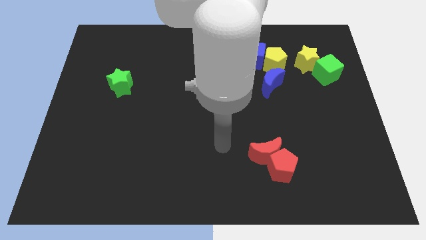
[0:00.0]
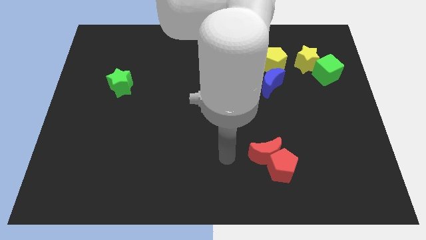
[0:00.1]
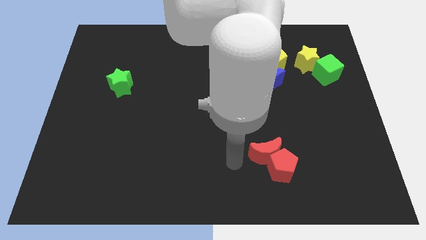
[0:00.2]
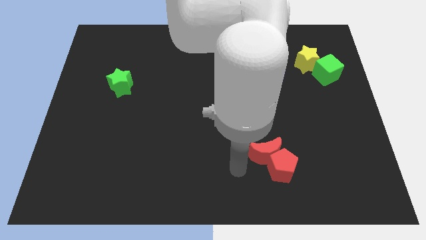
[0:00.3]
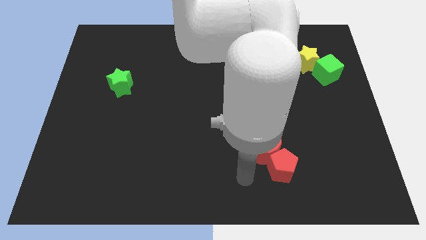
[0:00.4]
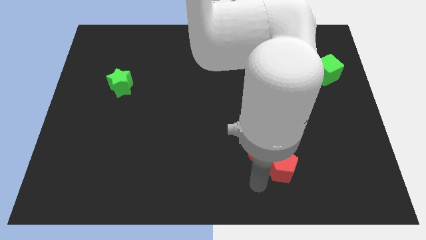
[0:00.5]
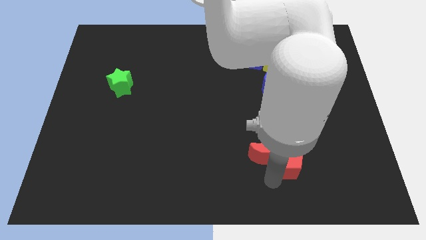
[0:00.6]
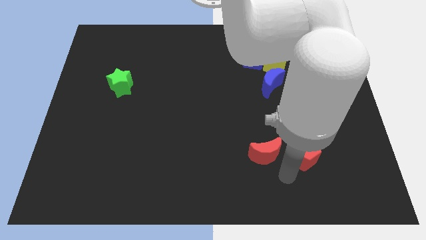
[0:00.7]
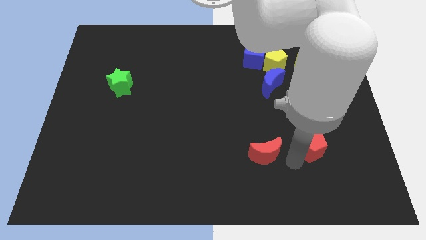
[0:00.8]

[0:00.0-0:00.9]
separate the red moon from the red pentagon

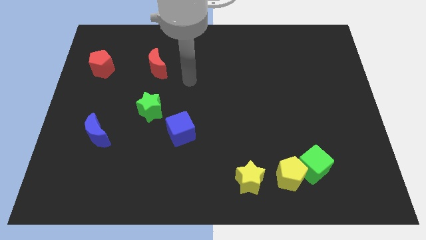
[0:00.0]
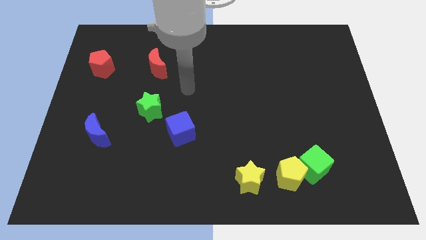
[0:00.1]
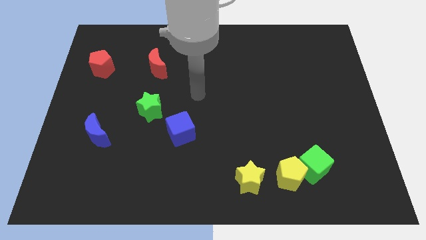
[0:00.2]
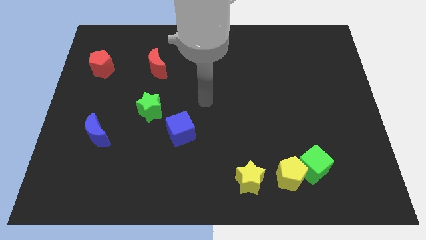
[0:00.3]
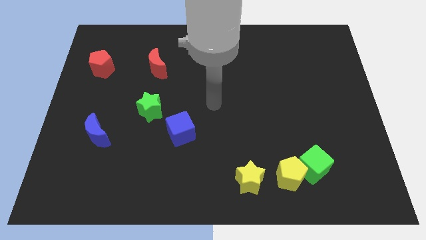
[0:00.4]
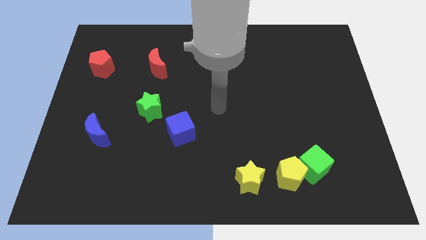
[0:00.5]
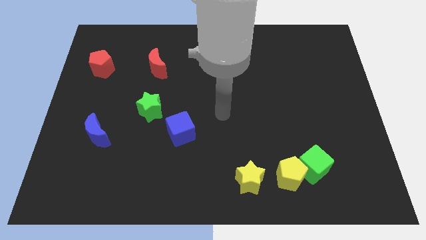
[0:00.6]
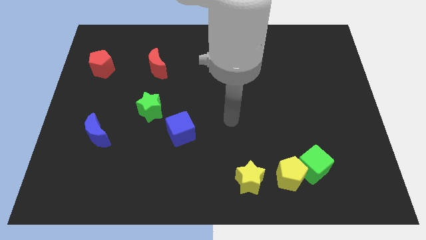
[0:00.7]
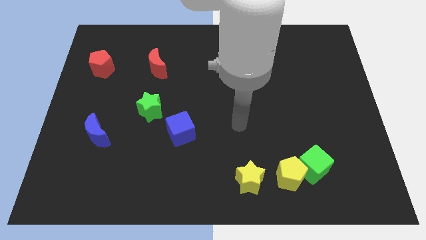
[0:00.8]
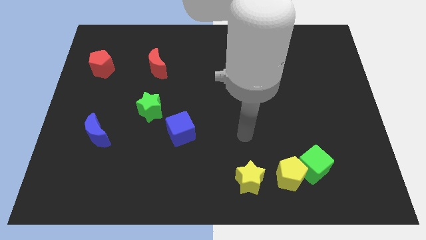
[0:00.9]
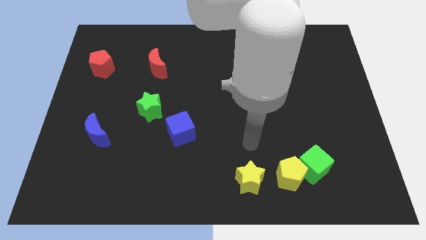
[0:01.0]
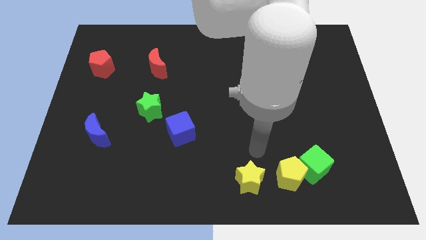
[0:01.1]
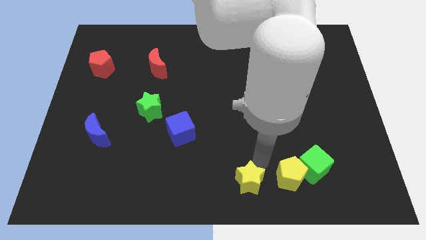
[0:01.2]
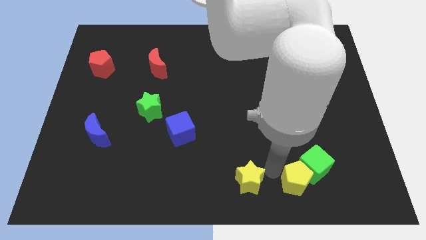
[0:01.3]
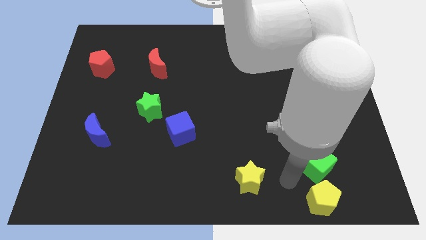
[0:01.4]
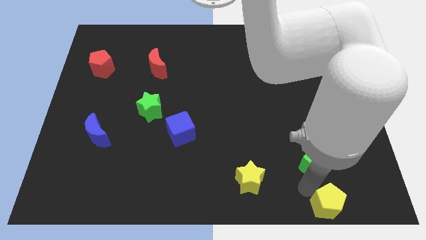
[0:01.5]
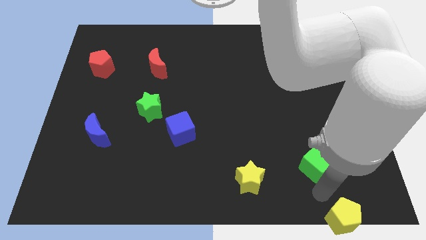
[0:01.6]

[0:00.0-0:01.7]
separate the green cube from the yellow pentagon

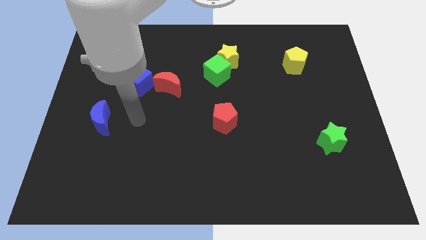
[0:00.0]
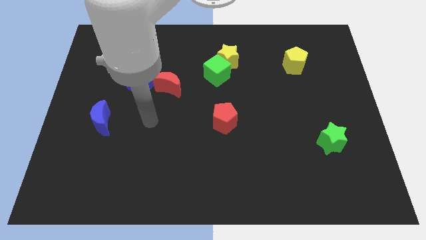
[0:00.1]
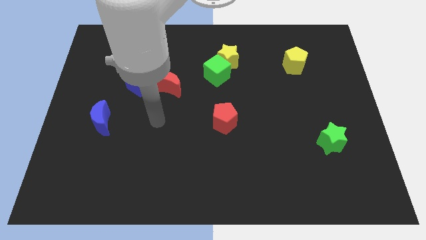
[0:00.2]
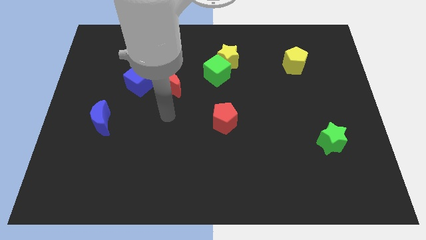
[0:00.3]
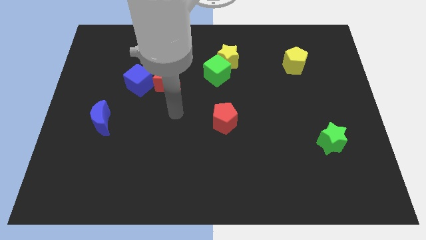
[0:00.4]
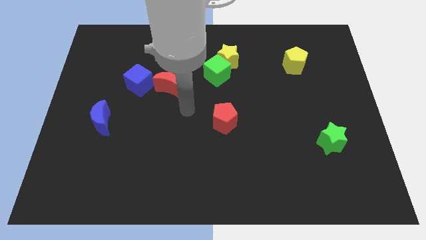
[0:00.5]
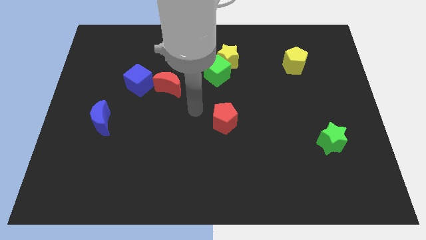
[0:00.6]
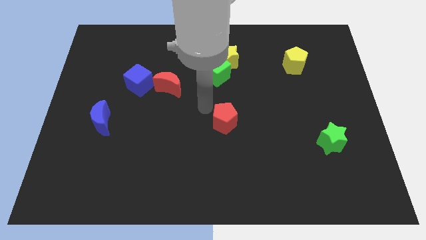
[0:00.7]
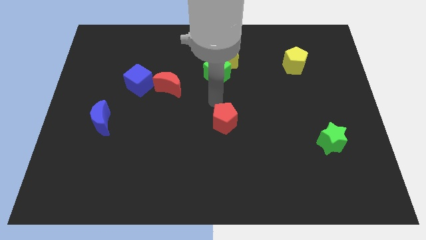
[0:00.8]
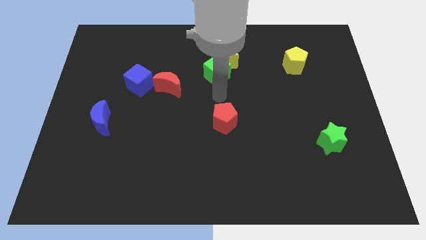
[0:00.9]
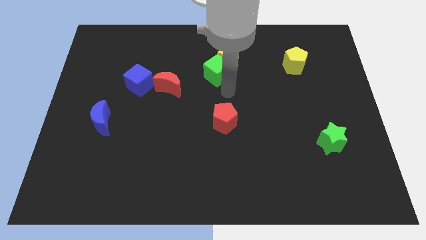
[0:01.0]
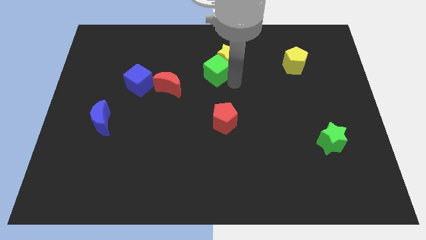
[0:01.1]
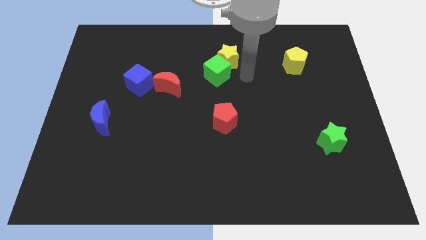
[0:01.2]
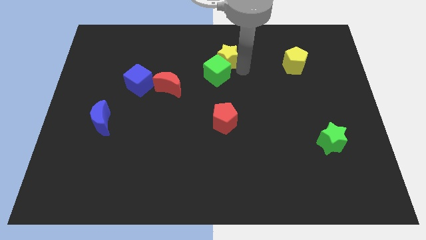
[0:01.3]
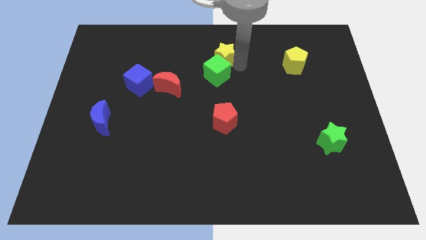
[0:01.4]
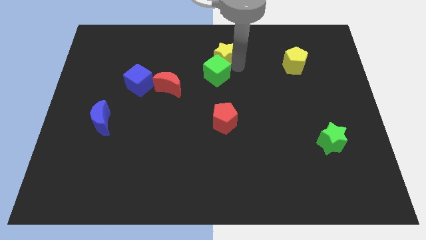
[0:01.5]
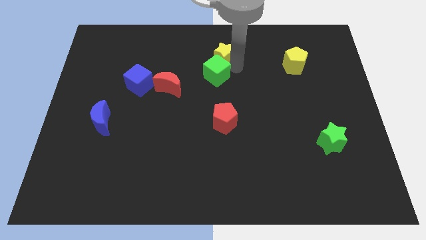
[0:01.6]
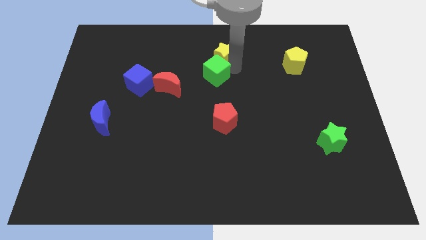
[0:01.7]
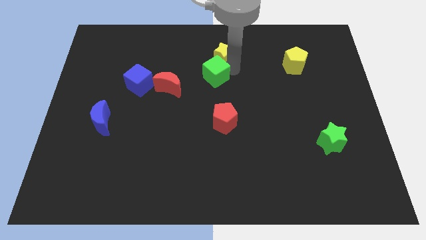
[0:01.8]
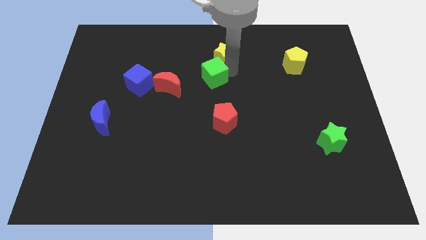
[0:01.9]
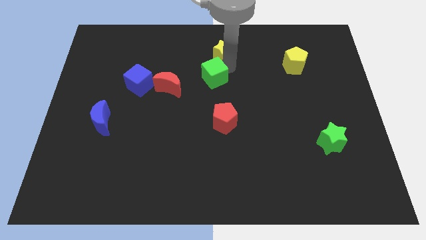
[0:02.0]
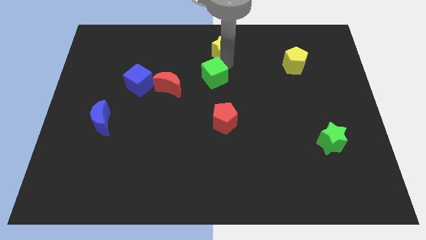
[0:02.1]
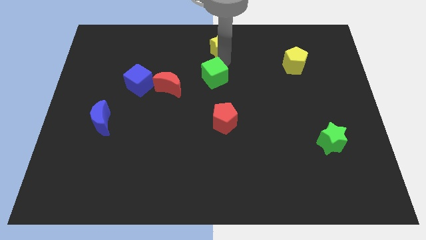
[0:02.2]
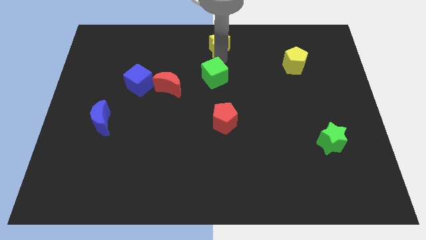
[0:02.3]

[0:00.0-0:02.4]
pull the green cube apart from the yellow star

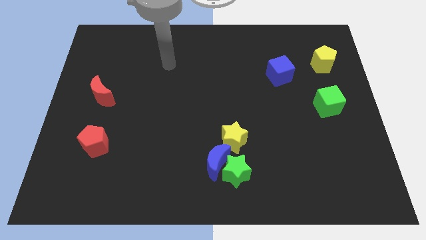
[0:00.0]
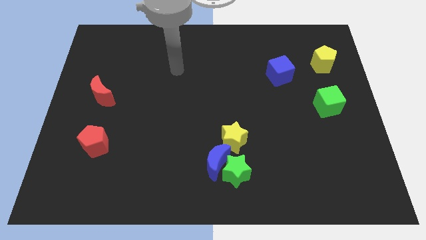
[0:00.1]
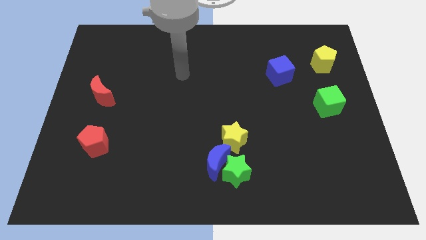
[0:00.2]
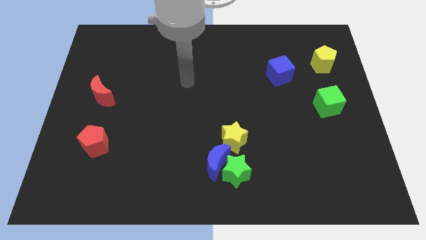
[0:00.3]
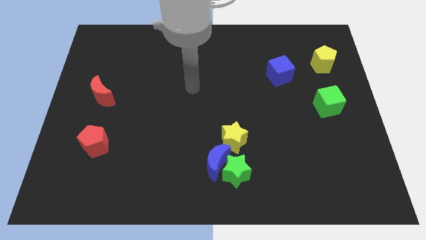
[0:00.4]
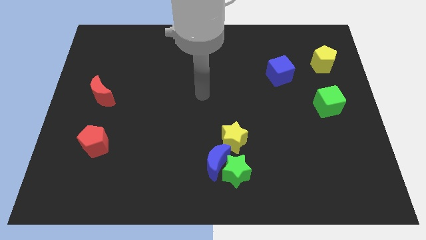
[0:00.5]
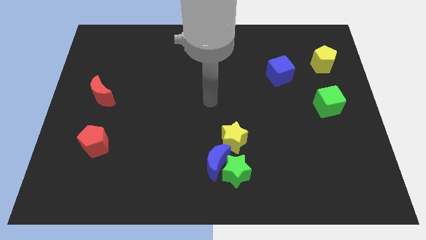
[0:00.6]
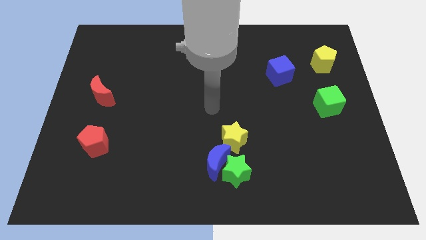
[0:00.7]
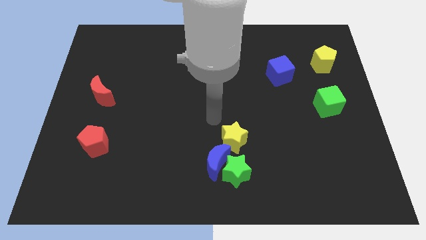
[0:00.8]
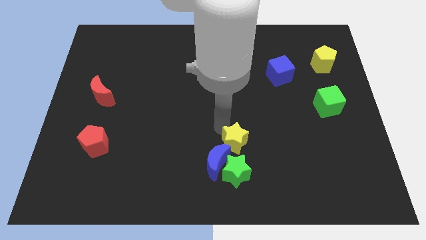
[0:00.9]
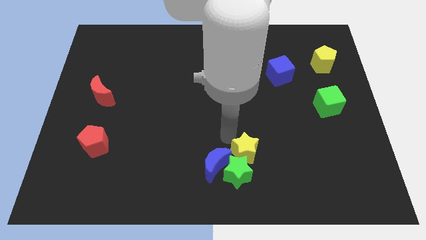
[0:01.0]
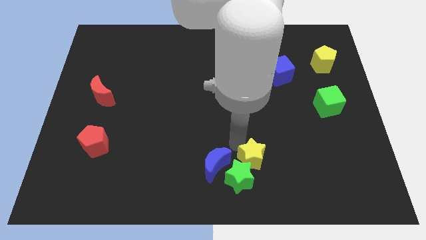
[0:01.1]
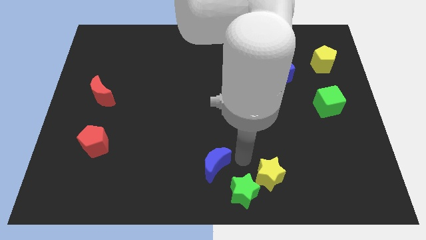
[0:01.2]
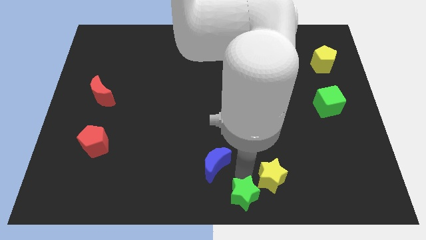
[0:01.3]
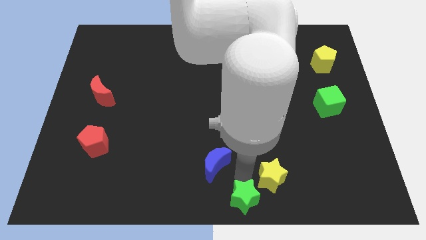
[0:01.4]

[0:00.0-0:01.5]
move the blue moon away from the green star and yellow star

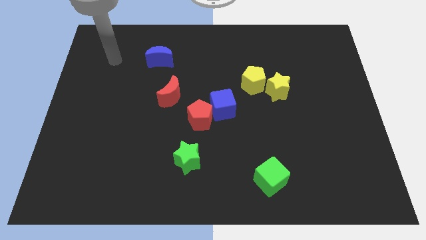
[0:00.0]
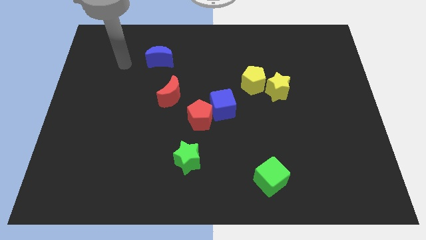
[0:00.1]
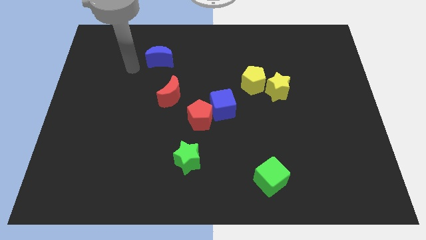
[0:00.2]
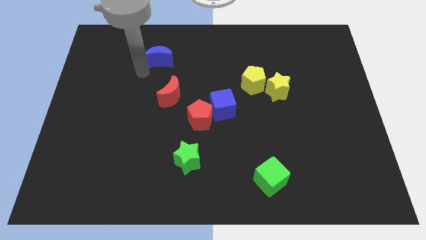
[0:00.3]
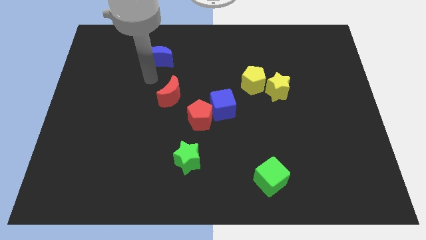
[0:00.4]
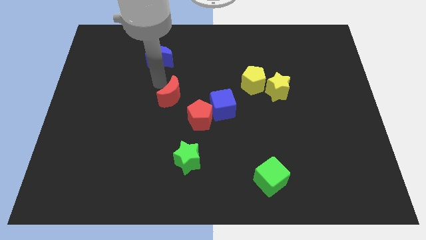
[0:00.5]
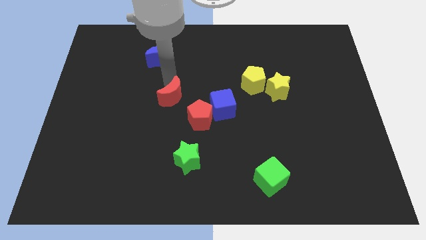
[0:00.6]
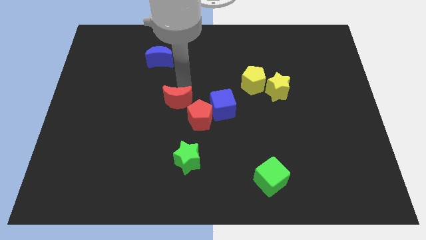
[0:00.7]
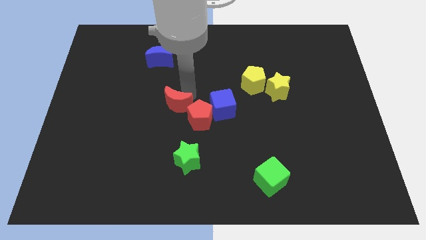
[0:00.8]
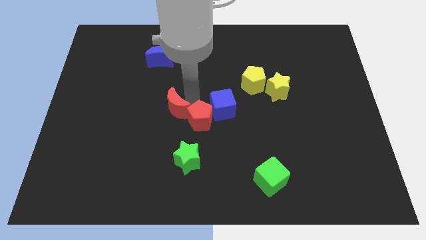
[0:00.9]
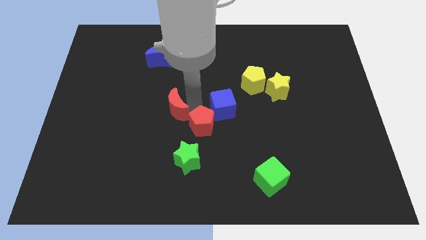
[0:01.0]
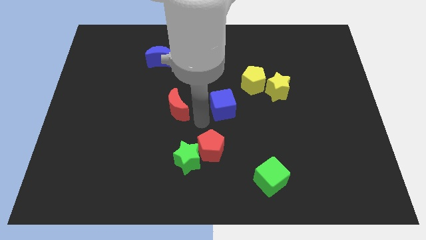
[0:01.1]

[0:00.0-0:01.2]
move the blue cube away from the red pentagon

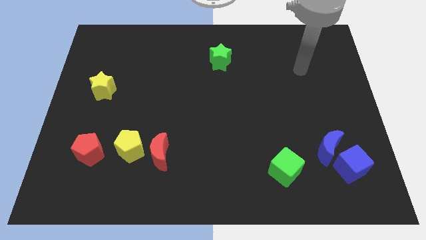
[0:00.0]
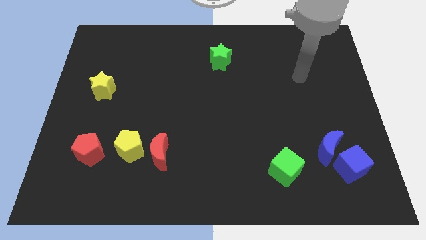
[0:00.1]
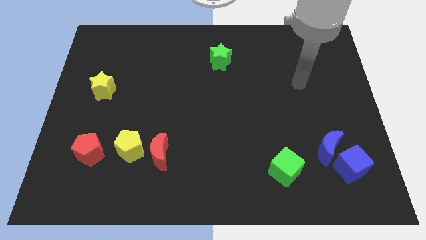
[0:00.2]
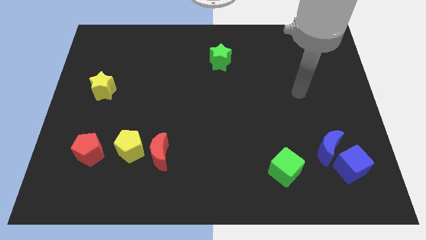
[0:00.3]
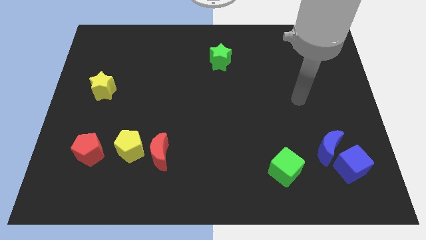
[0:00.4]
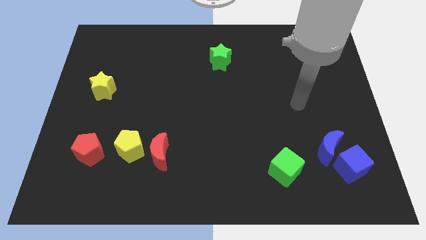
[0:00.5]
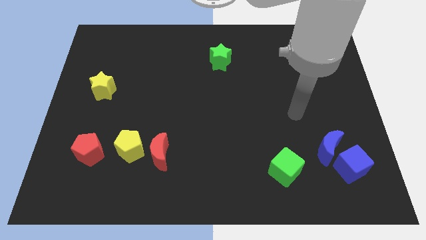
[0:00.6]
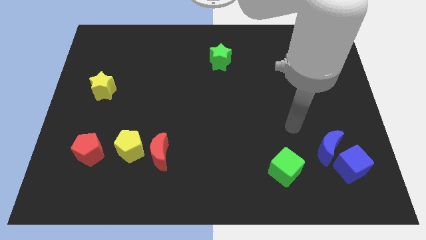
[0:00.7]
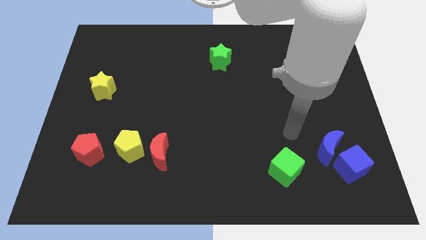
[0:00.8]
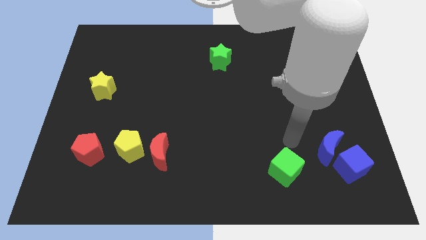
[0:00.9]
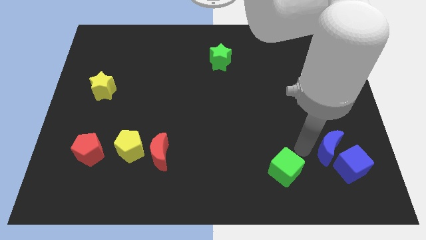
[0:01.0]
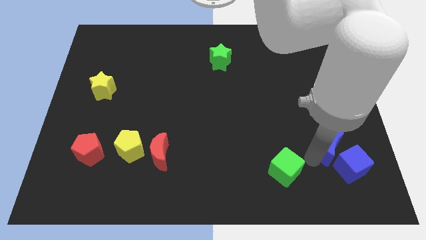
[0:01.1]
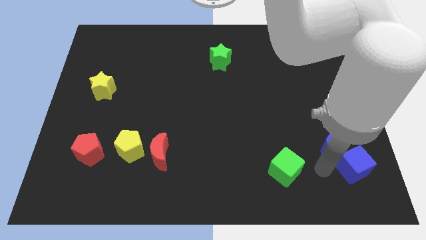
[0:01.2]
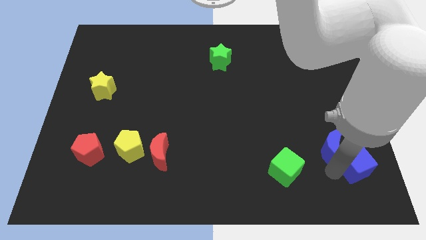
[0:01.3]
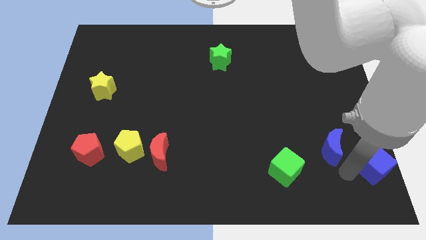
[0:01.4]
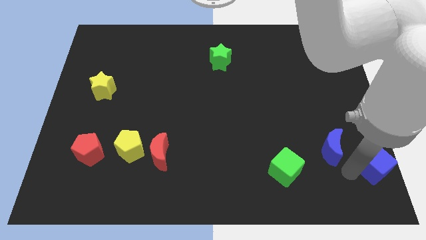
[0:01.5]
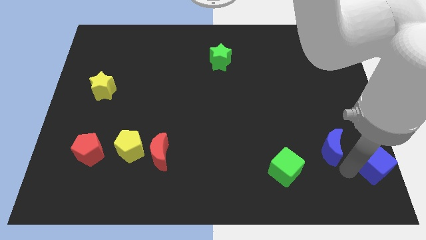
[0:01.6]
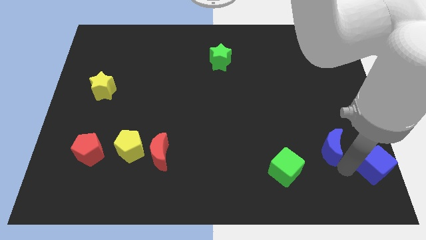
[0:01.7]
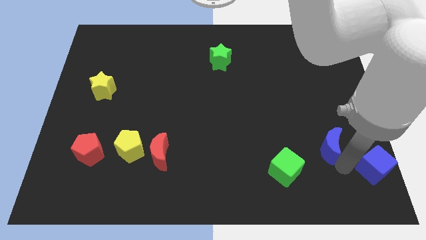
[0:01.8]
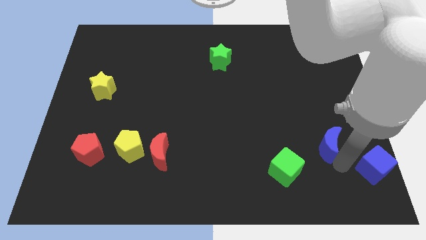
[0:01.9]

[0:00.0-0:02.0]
move the blue moon away from the blue cube
